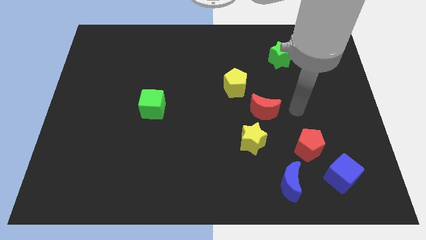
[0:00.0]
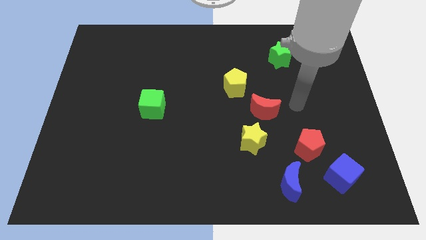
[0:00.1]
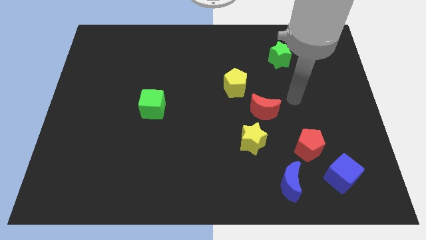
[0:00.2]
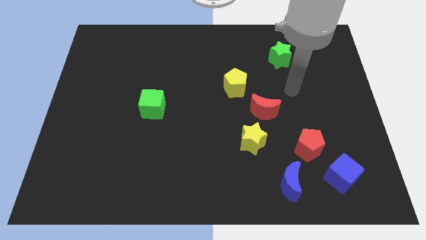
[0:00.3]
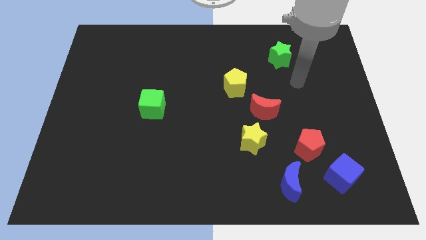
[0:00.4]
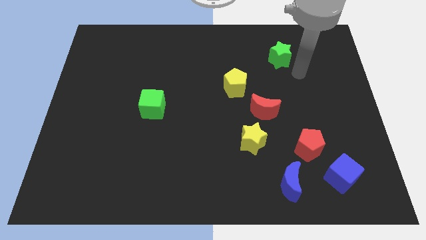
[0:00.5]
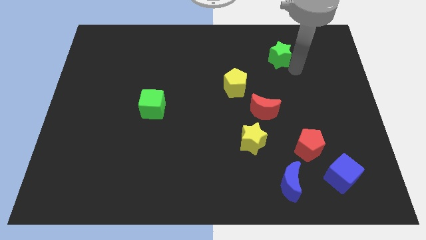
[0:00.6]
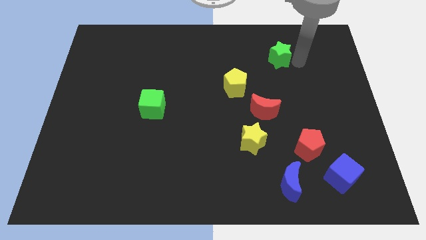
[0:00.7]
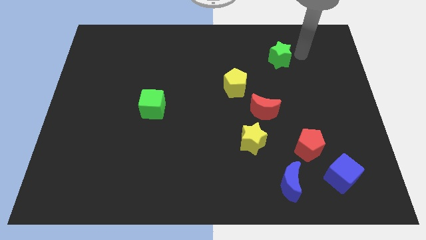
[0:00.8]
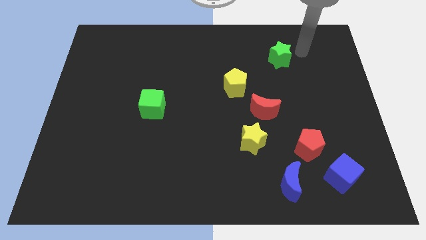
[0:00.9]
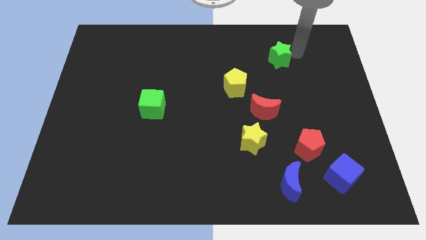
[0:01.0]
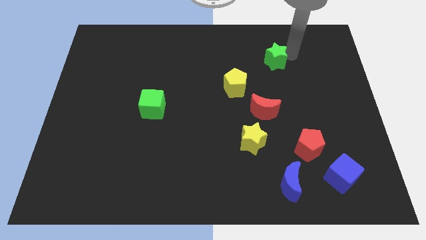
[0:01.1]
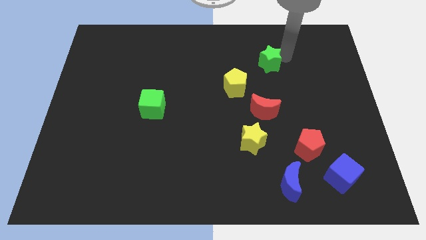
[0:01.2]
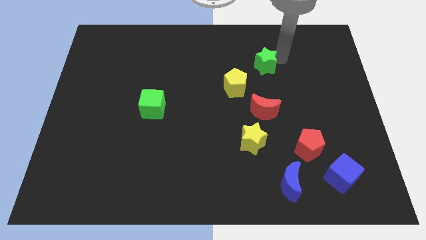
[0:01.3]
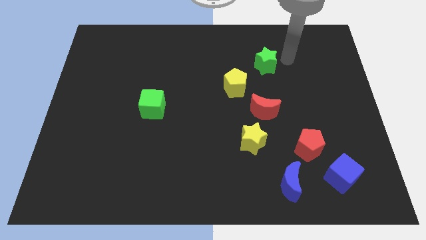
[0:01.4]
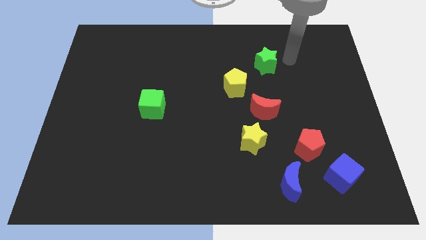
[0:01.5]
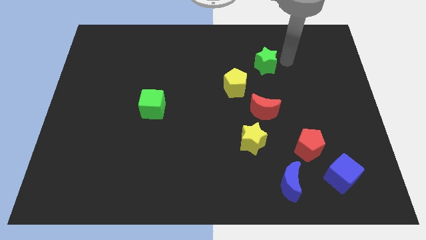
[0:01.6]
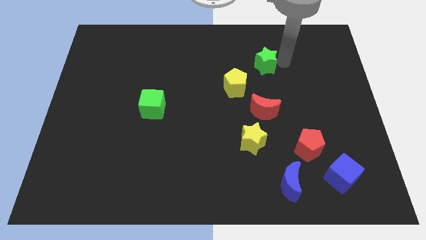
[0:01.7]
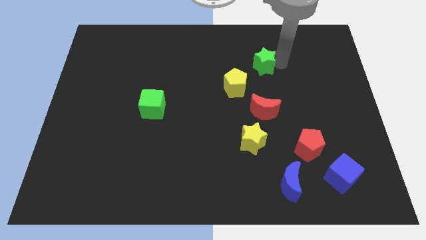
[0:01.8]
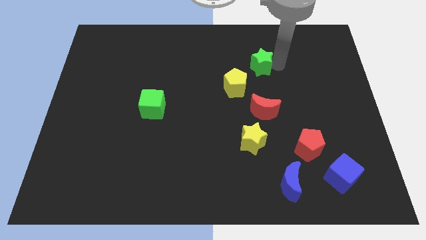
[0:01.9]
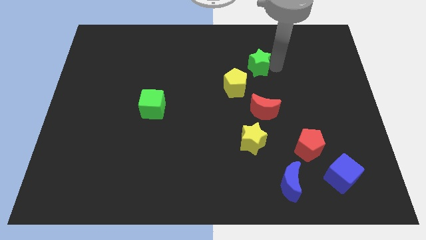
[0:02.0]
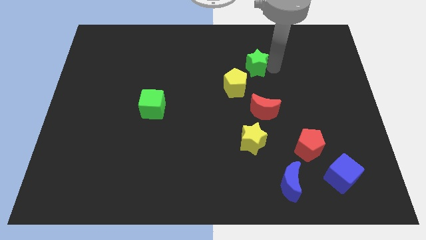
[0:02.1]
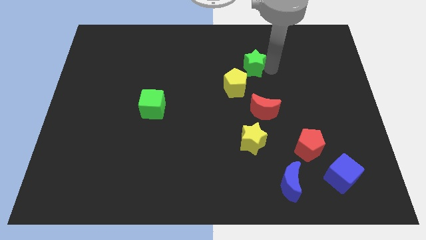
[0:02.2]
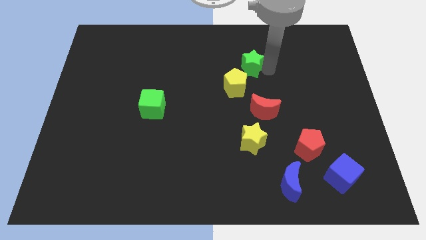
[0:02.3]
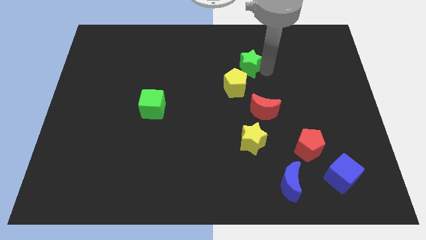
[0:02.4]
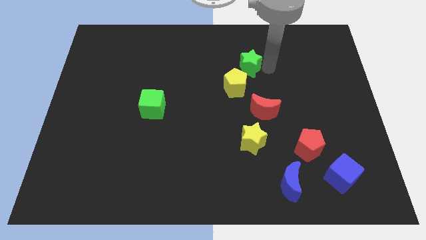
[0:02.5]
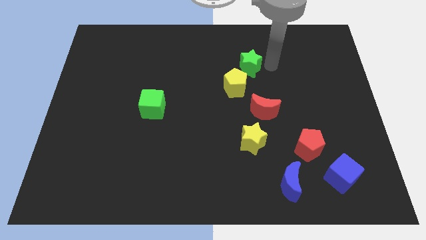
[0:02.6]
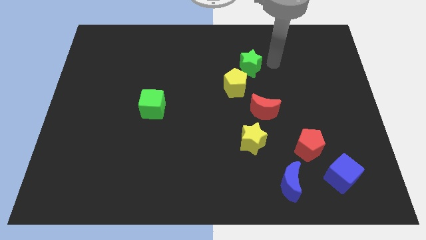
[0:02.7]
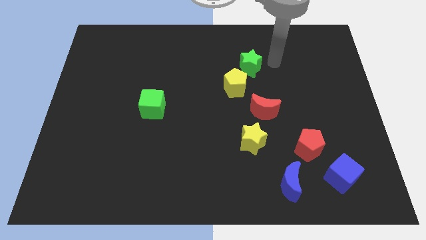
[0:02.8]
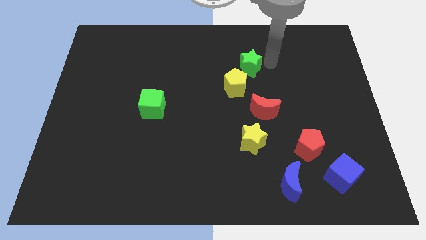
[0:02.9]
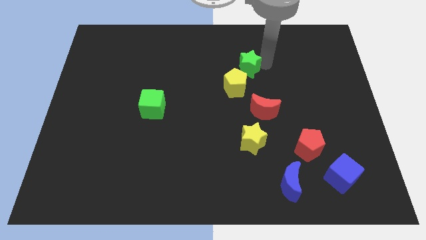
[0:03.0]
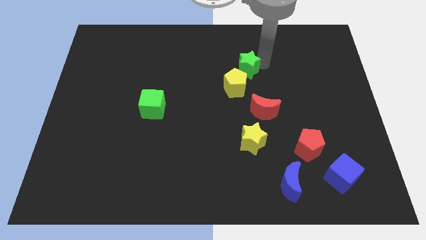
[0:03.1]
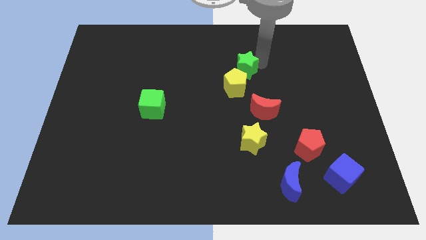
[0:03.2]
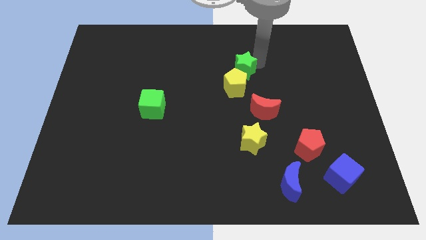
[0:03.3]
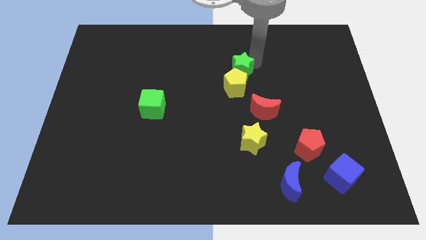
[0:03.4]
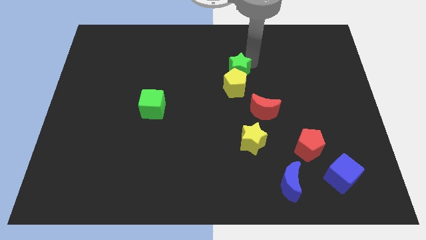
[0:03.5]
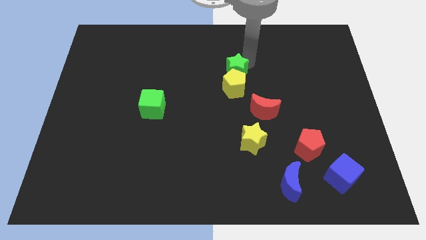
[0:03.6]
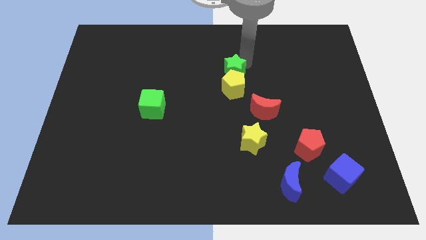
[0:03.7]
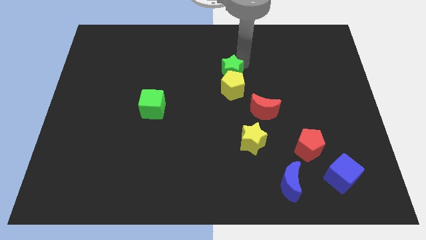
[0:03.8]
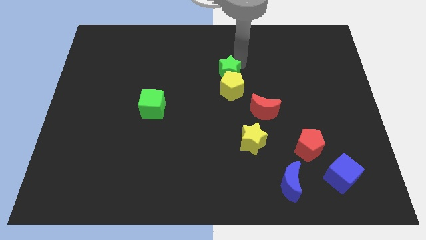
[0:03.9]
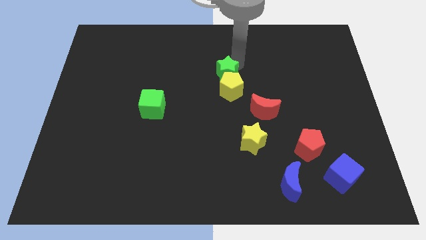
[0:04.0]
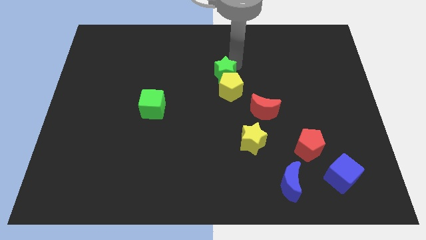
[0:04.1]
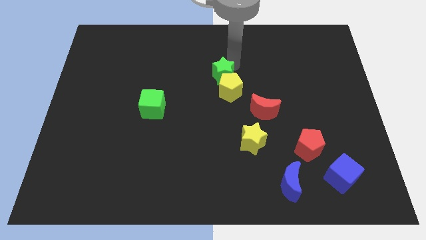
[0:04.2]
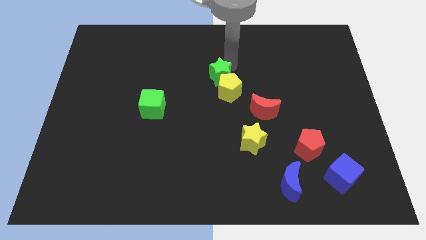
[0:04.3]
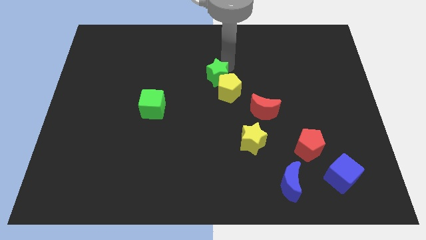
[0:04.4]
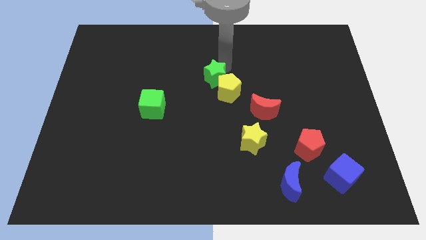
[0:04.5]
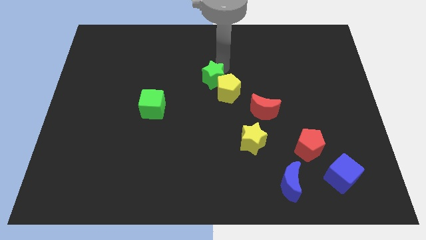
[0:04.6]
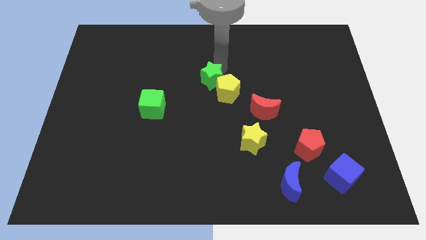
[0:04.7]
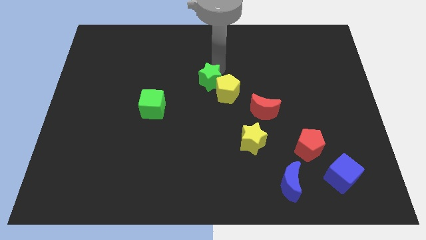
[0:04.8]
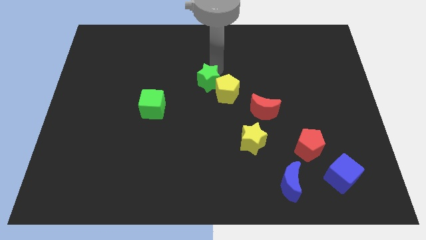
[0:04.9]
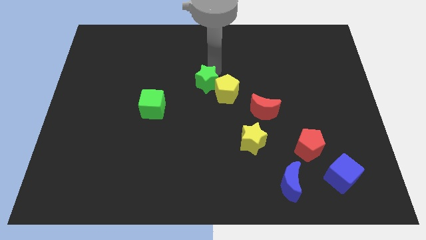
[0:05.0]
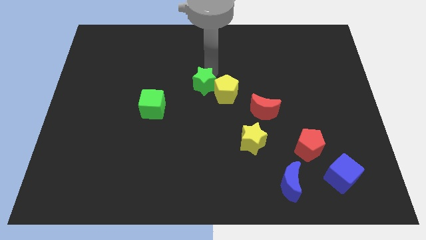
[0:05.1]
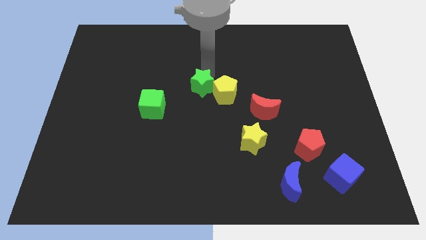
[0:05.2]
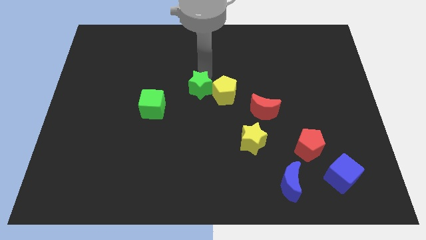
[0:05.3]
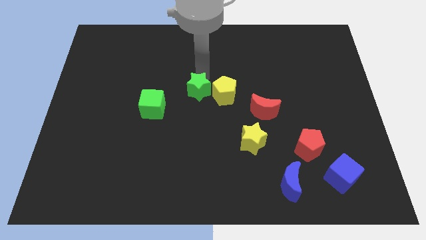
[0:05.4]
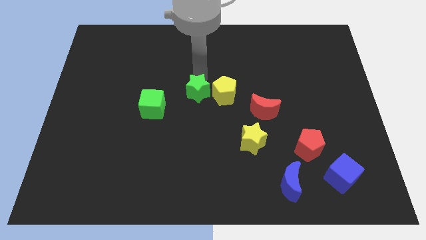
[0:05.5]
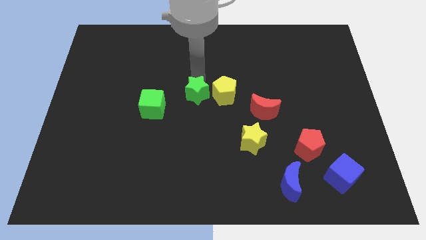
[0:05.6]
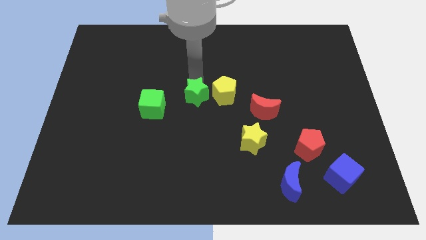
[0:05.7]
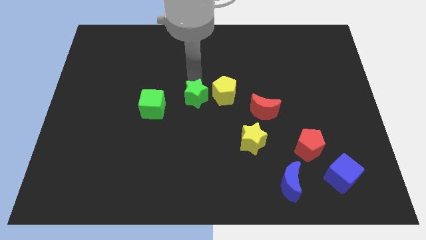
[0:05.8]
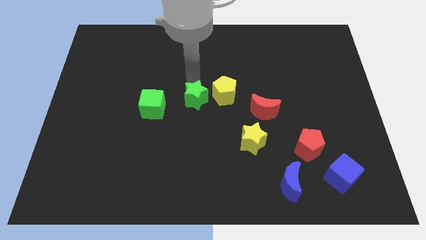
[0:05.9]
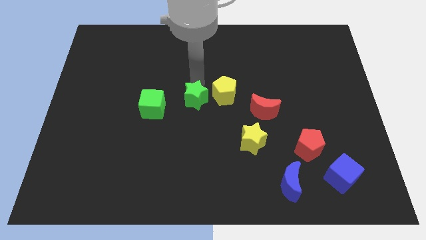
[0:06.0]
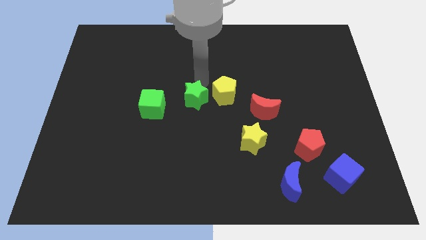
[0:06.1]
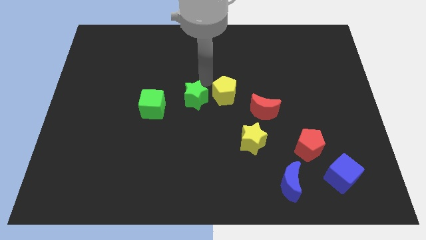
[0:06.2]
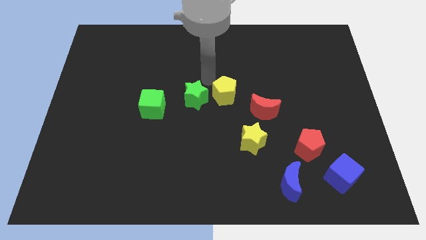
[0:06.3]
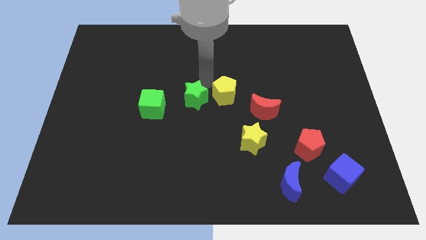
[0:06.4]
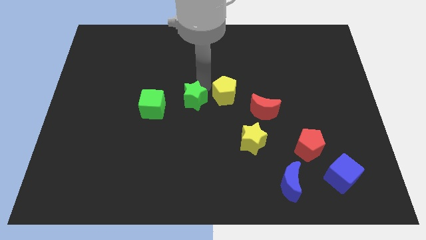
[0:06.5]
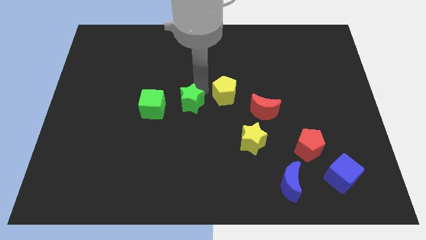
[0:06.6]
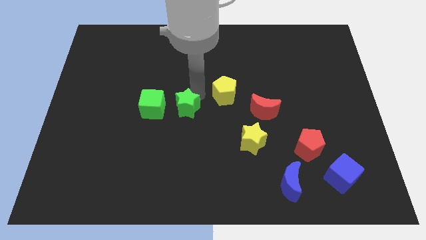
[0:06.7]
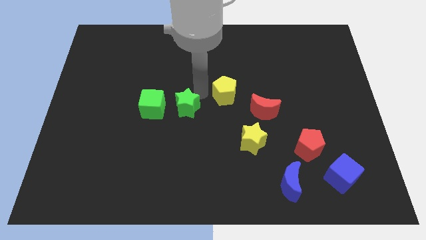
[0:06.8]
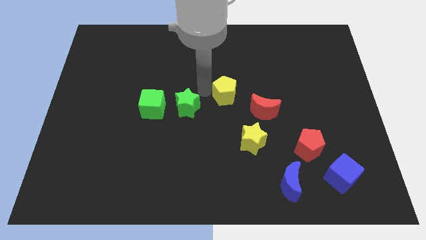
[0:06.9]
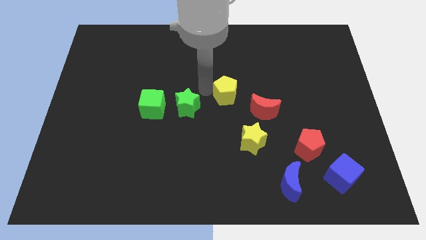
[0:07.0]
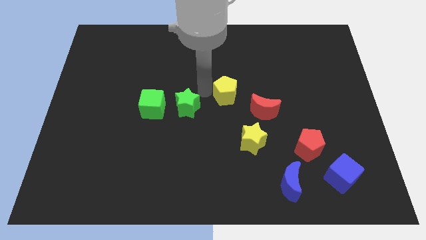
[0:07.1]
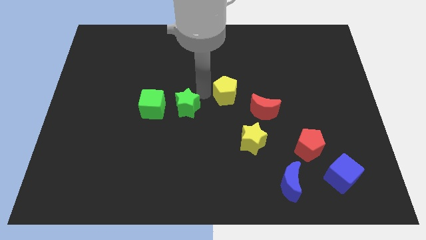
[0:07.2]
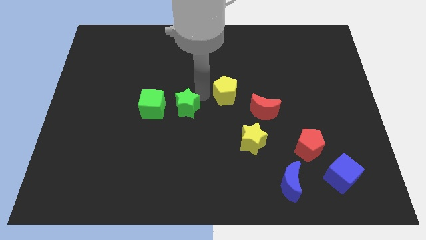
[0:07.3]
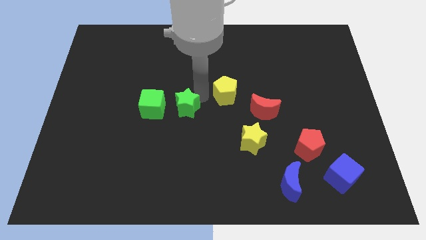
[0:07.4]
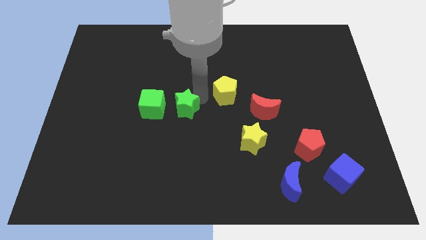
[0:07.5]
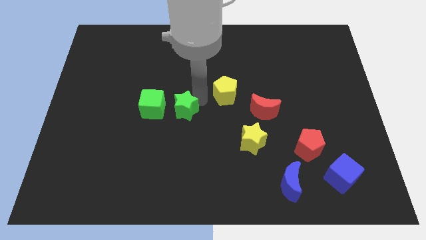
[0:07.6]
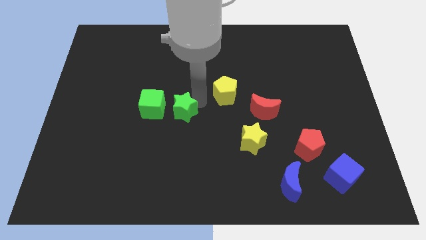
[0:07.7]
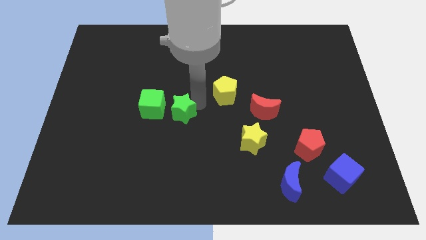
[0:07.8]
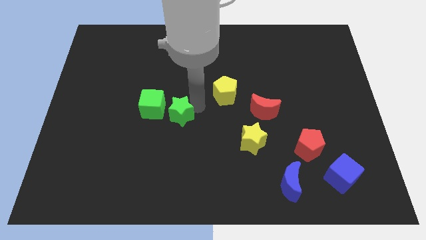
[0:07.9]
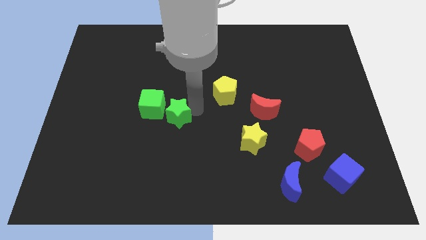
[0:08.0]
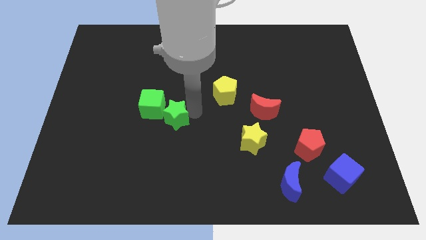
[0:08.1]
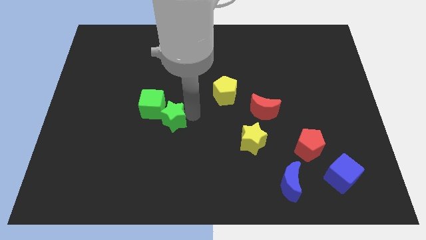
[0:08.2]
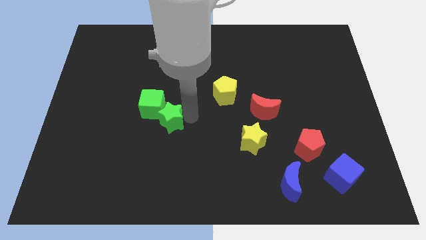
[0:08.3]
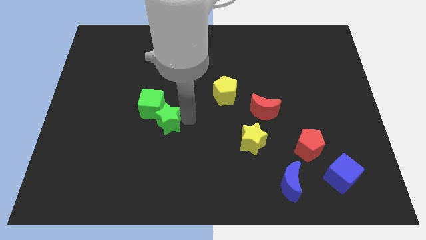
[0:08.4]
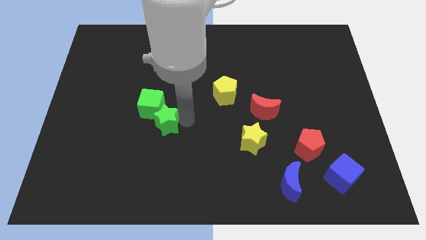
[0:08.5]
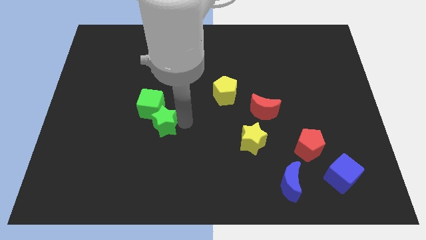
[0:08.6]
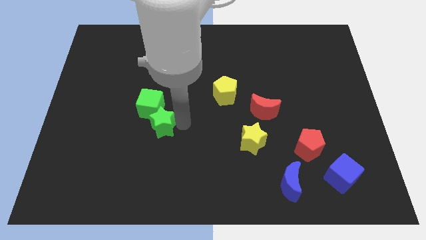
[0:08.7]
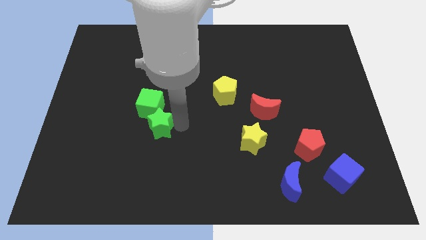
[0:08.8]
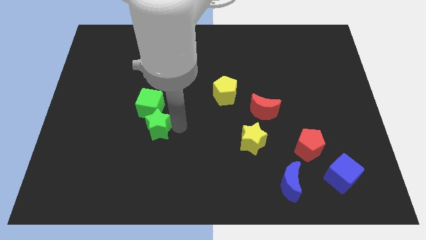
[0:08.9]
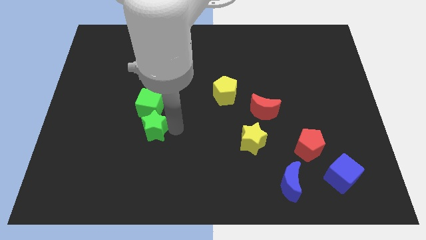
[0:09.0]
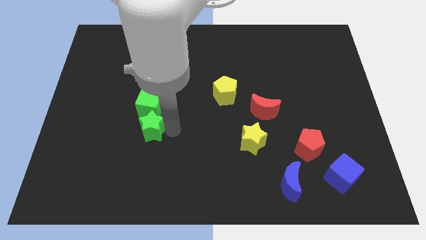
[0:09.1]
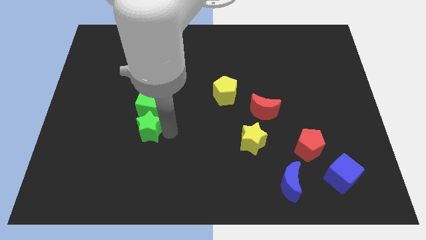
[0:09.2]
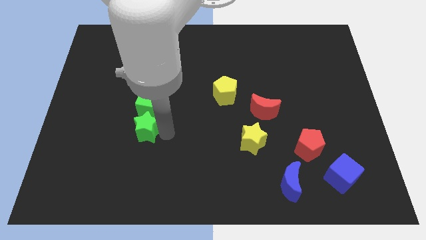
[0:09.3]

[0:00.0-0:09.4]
put the green star diagonally down and to the left of the green cube
